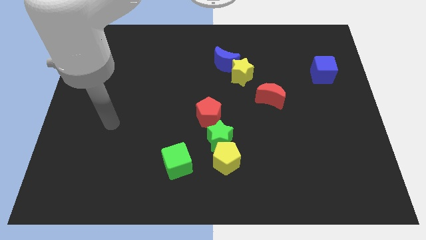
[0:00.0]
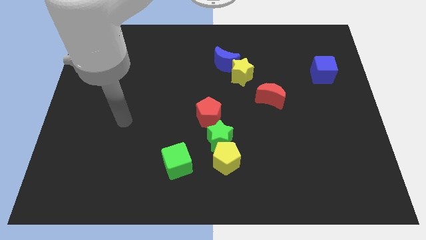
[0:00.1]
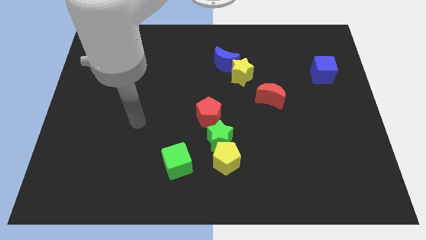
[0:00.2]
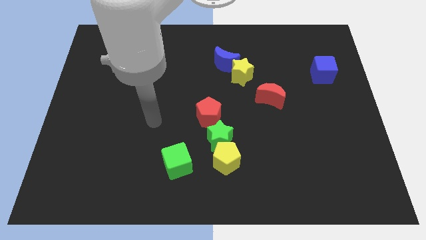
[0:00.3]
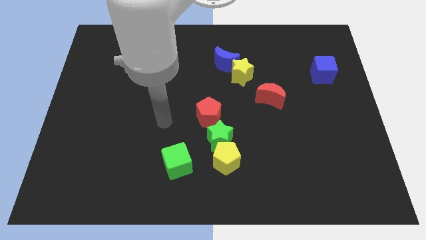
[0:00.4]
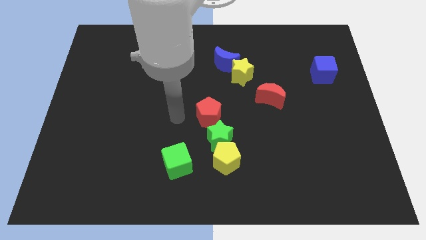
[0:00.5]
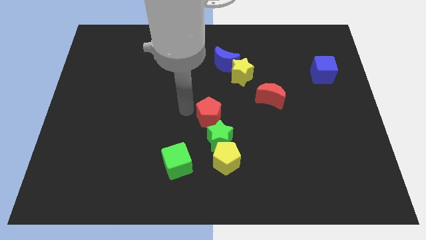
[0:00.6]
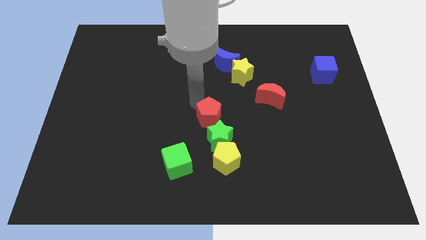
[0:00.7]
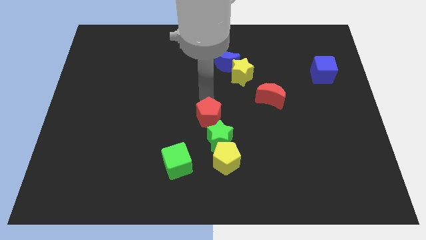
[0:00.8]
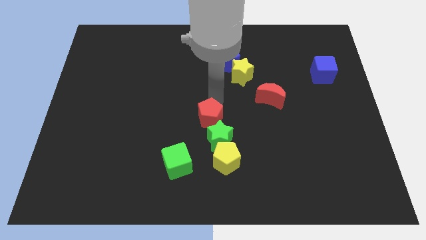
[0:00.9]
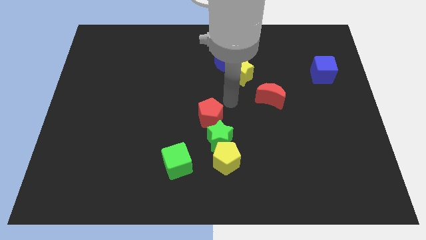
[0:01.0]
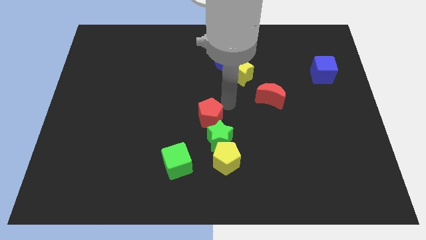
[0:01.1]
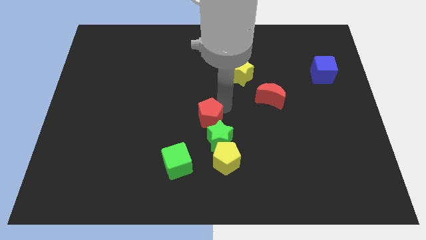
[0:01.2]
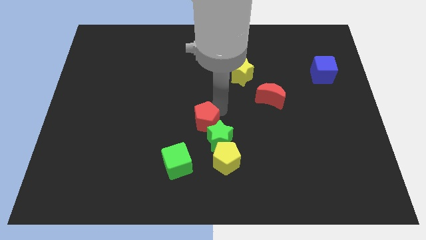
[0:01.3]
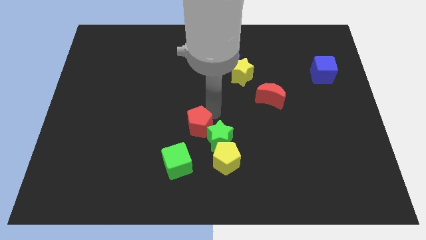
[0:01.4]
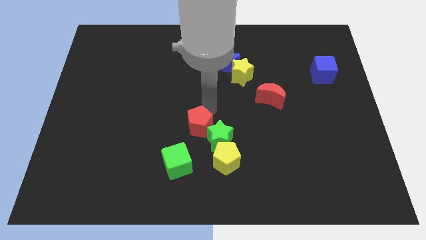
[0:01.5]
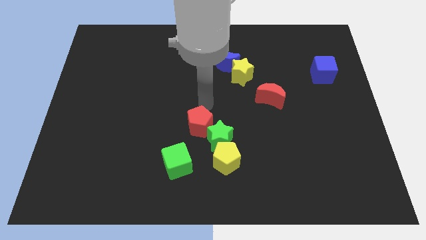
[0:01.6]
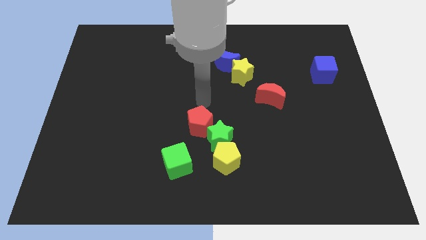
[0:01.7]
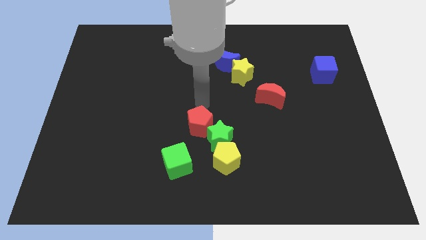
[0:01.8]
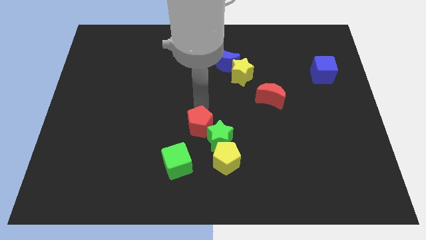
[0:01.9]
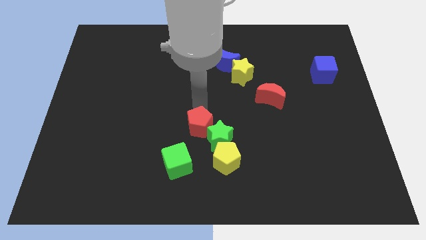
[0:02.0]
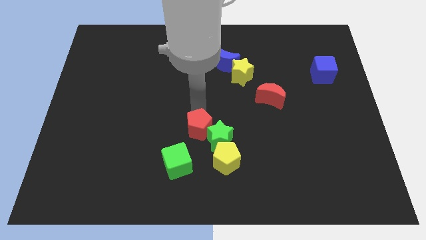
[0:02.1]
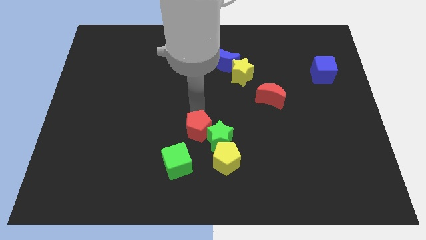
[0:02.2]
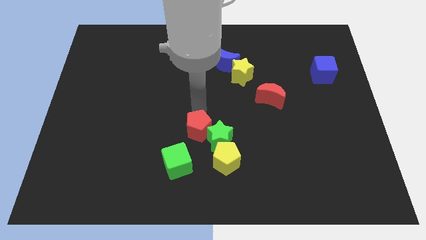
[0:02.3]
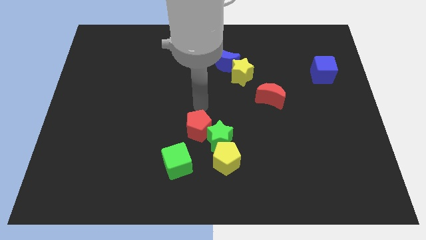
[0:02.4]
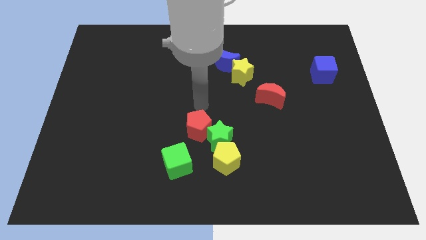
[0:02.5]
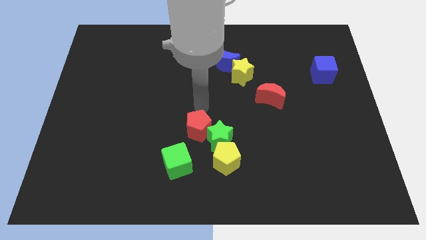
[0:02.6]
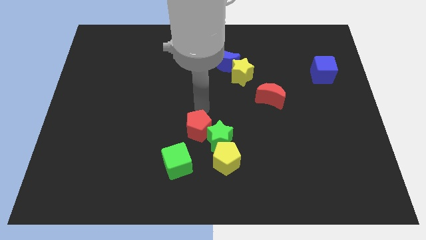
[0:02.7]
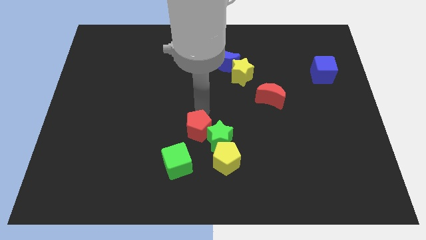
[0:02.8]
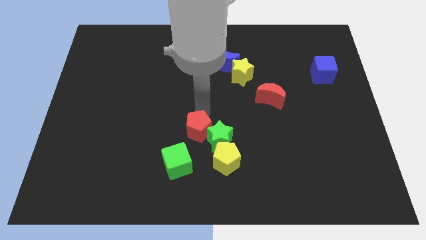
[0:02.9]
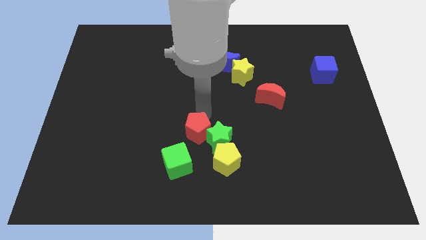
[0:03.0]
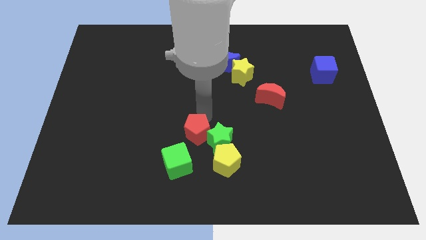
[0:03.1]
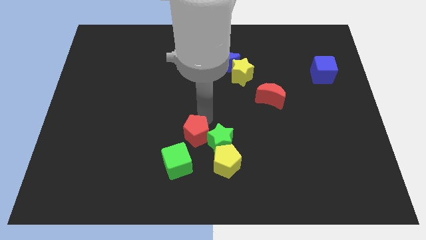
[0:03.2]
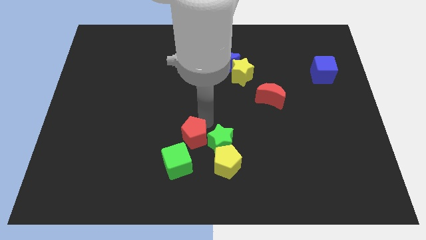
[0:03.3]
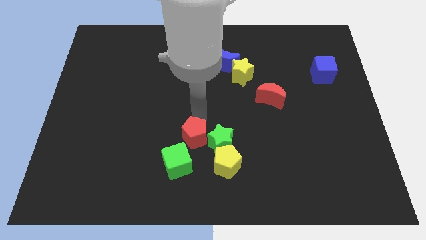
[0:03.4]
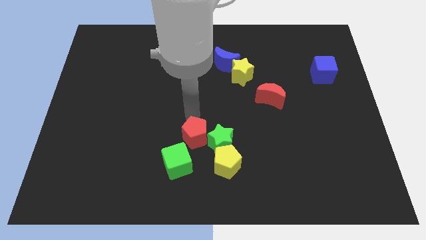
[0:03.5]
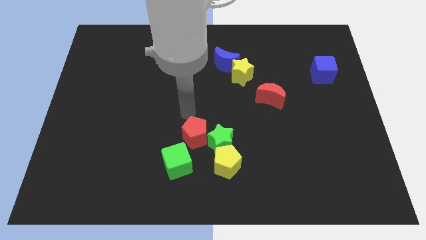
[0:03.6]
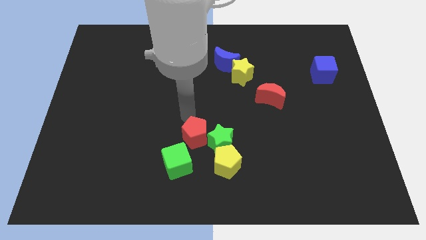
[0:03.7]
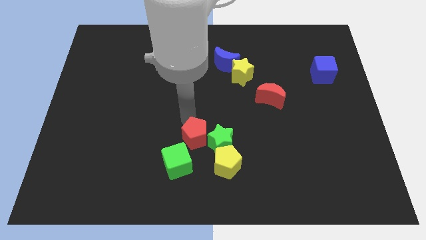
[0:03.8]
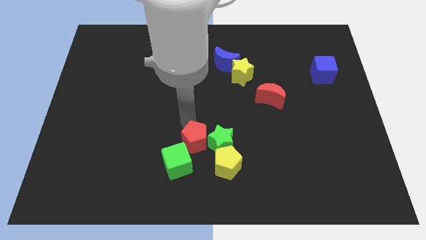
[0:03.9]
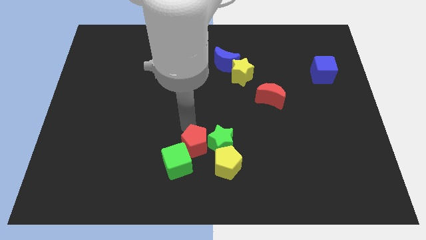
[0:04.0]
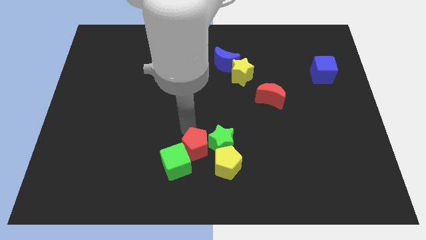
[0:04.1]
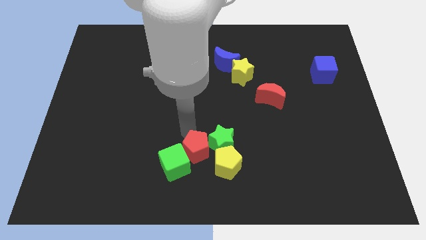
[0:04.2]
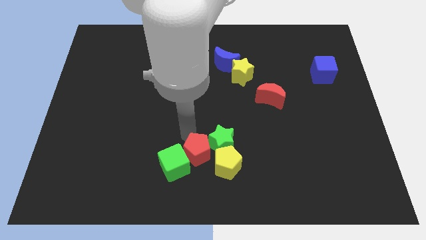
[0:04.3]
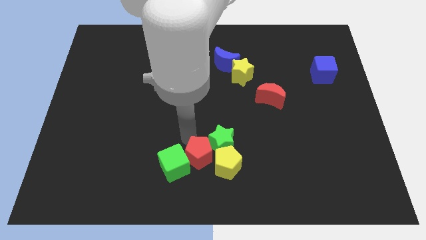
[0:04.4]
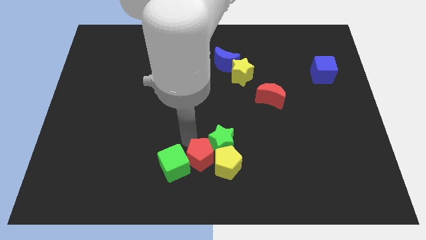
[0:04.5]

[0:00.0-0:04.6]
move the red pentagon to the bottom of the green star

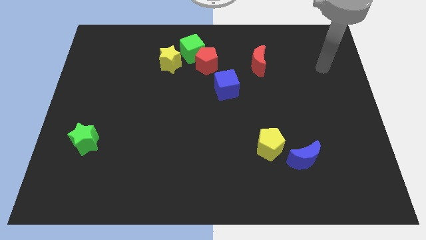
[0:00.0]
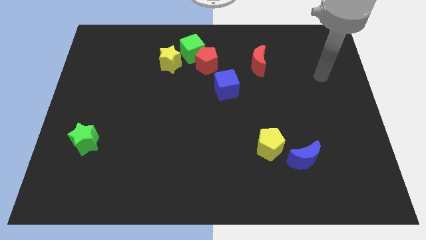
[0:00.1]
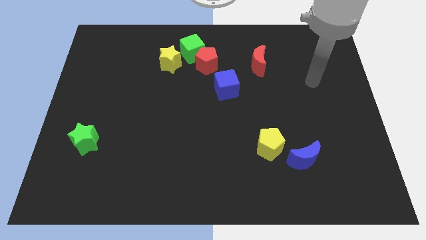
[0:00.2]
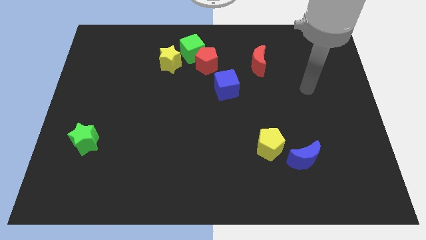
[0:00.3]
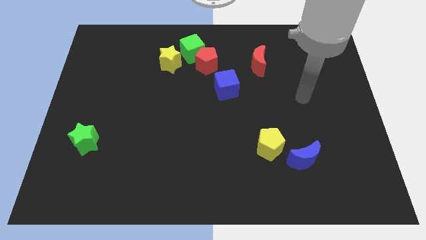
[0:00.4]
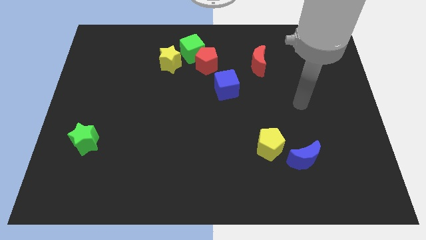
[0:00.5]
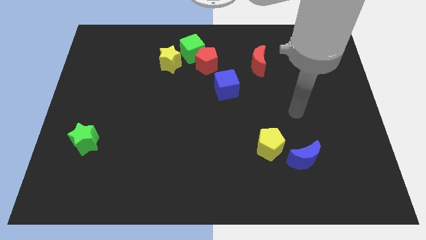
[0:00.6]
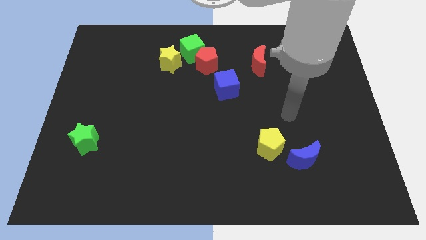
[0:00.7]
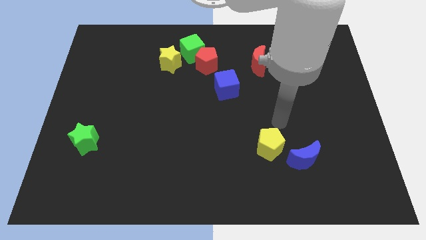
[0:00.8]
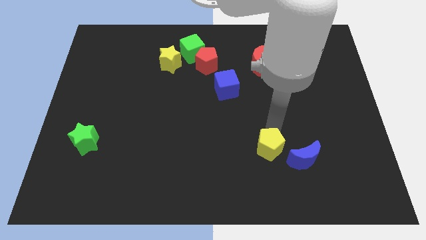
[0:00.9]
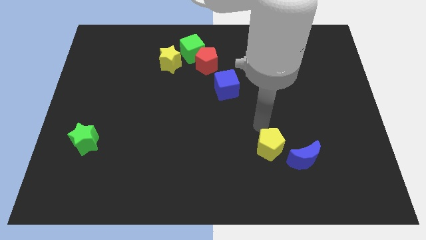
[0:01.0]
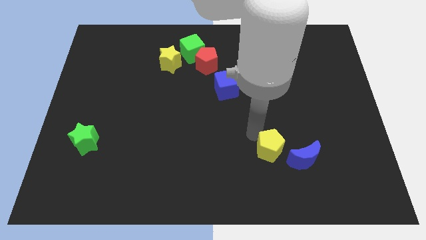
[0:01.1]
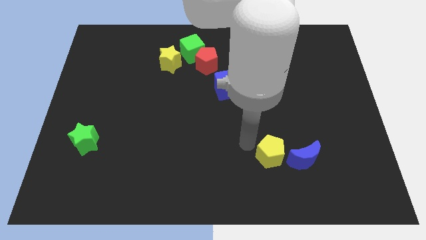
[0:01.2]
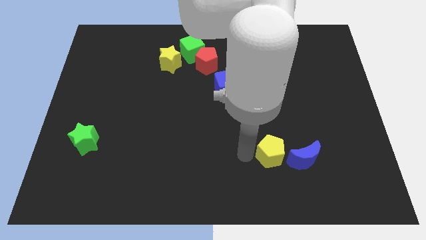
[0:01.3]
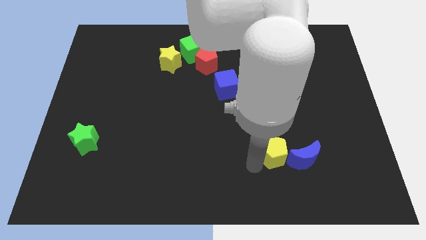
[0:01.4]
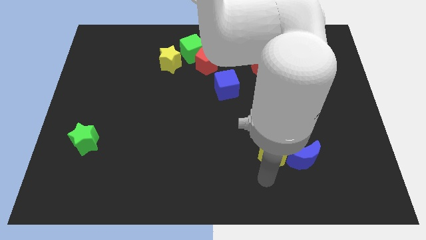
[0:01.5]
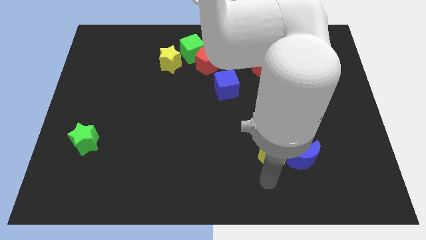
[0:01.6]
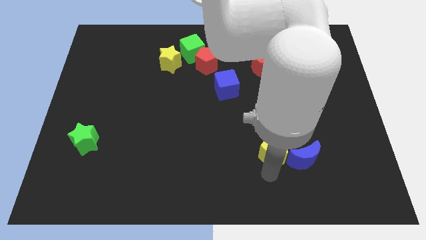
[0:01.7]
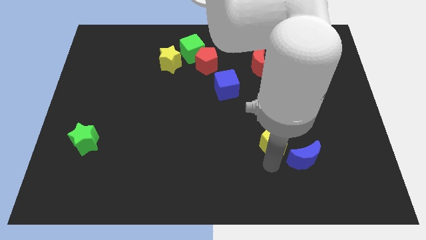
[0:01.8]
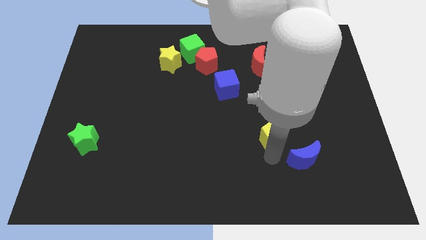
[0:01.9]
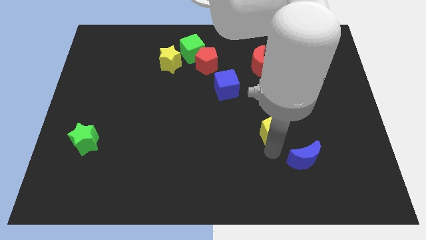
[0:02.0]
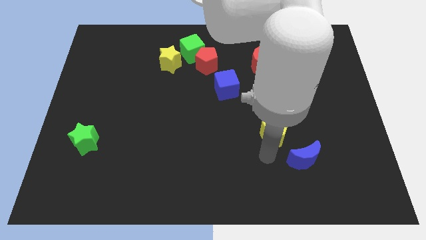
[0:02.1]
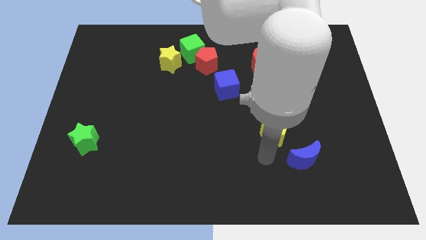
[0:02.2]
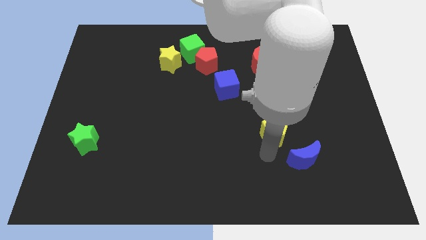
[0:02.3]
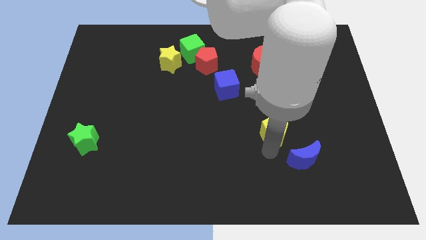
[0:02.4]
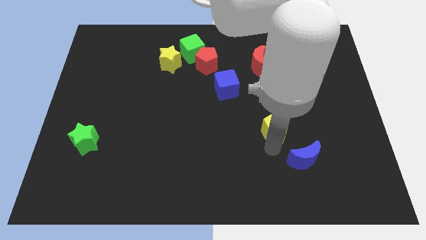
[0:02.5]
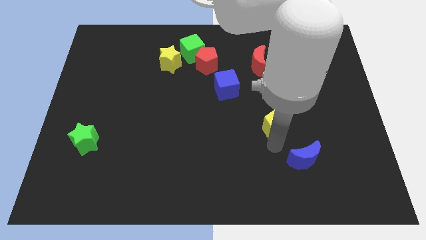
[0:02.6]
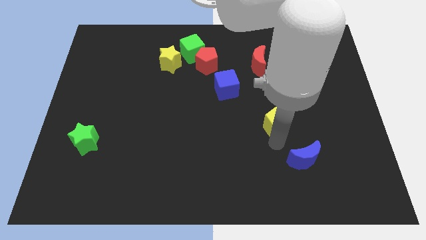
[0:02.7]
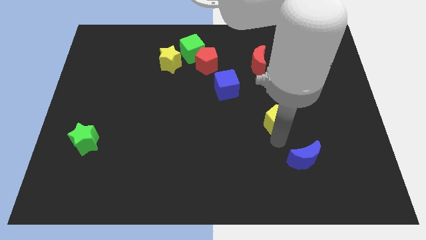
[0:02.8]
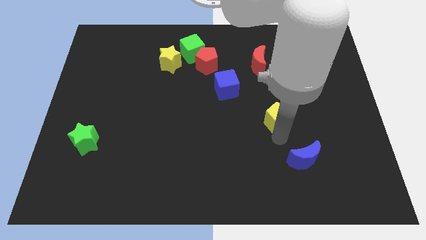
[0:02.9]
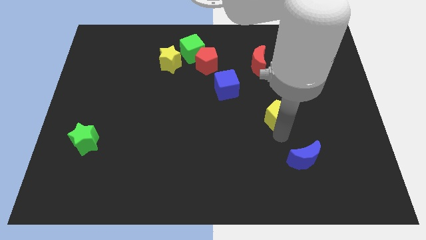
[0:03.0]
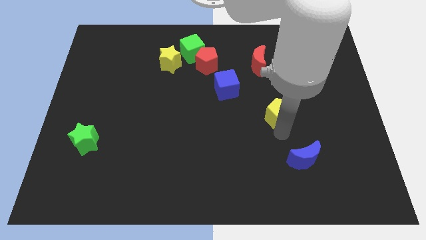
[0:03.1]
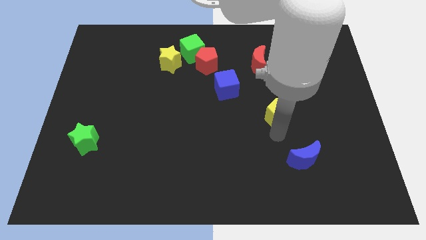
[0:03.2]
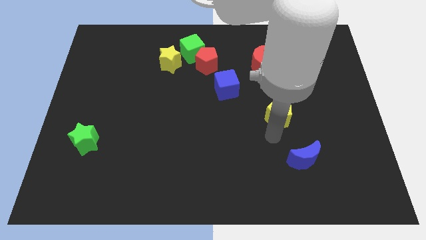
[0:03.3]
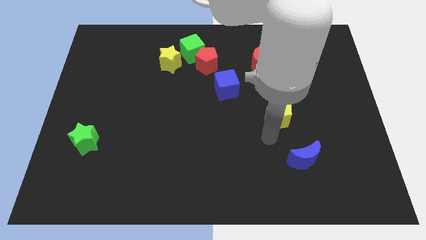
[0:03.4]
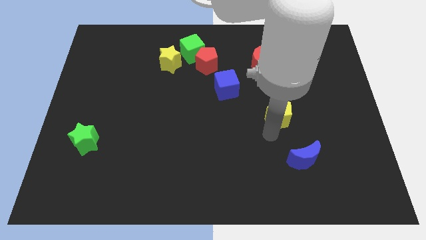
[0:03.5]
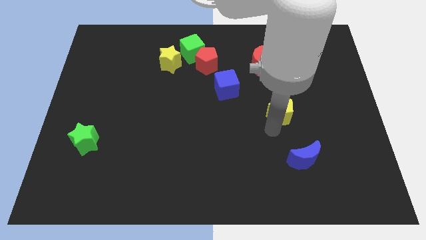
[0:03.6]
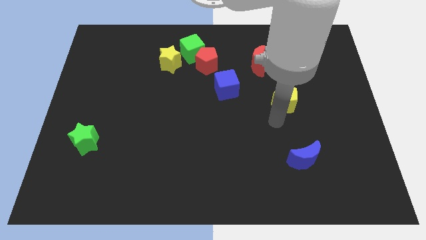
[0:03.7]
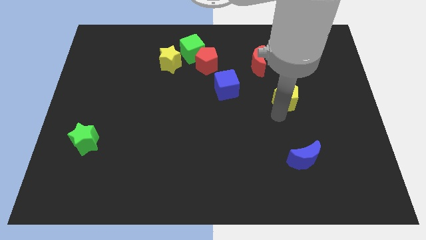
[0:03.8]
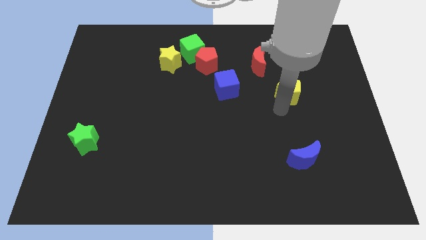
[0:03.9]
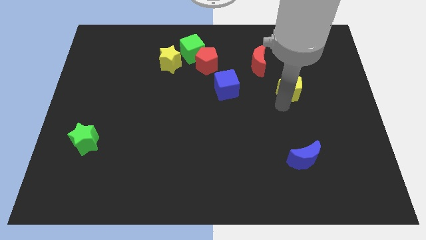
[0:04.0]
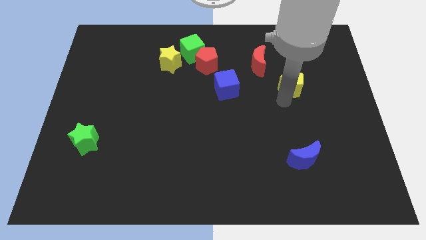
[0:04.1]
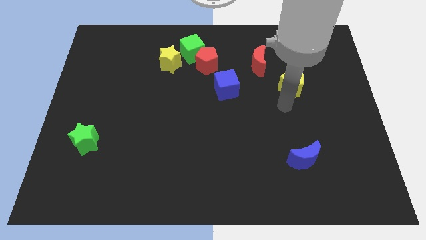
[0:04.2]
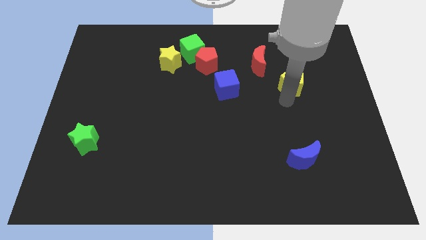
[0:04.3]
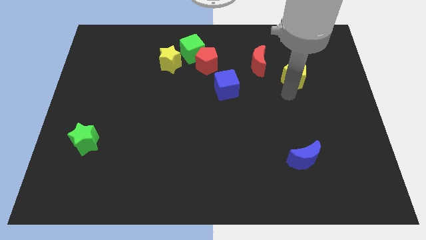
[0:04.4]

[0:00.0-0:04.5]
put the yellow pentagon to the right of the red moon
